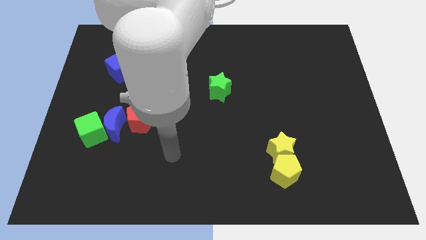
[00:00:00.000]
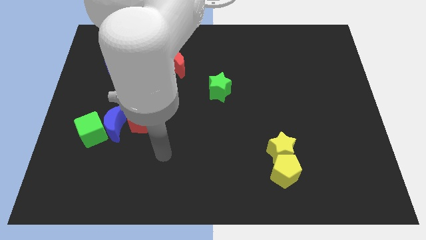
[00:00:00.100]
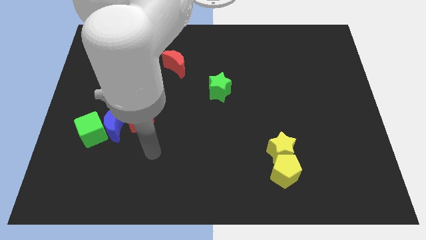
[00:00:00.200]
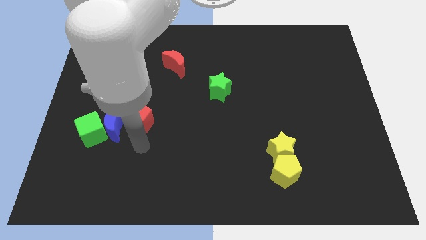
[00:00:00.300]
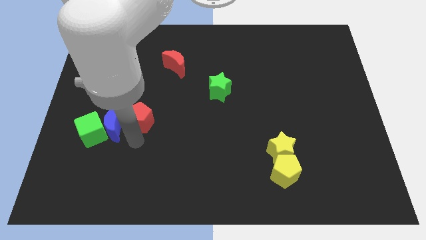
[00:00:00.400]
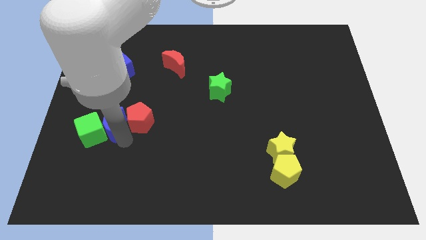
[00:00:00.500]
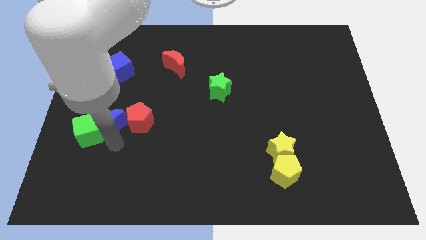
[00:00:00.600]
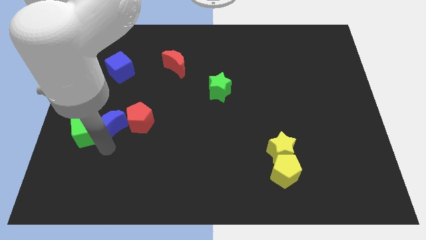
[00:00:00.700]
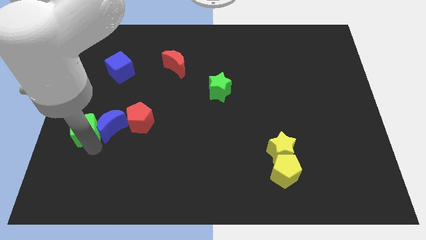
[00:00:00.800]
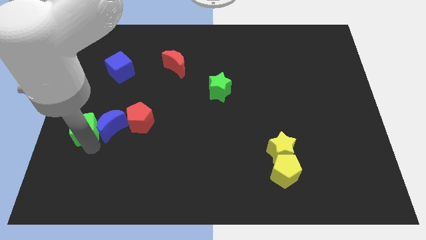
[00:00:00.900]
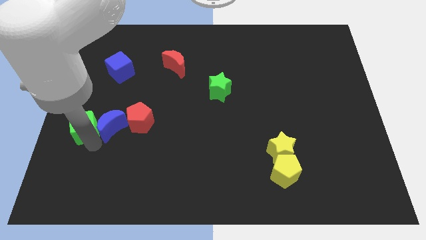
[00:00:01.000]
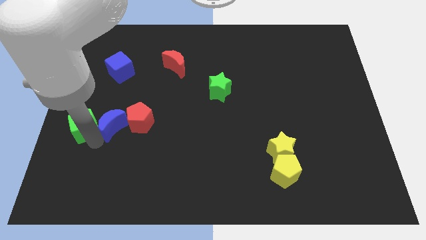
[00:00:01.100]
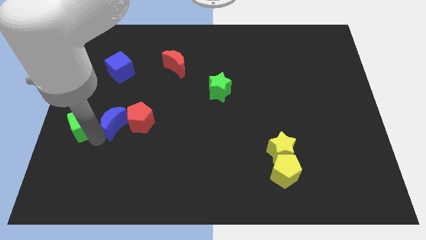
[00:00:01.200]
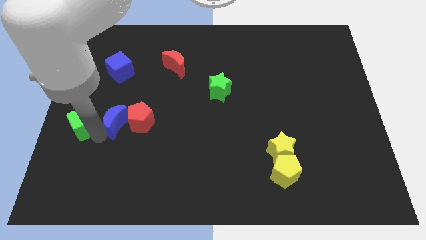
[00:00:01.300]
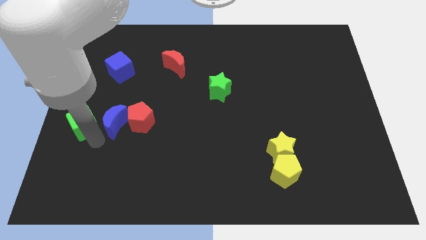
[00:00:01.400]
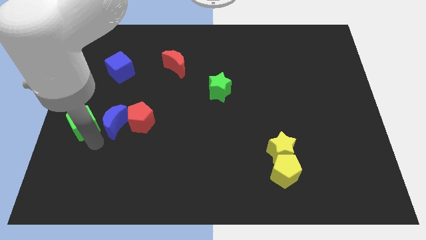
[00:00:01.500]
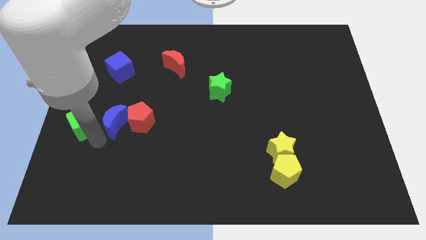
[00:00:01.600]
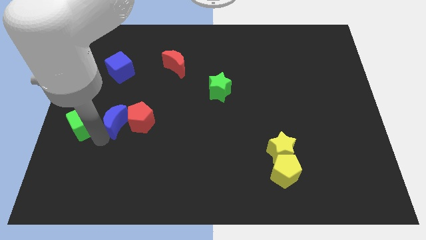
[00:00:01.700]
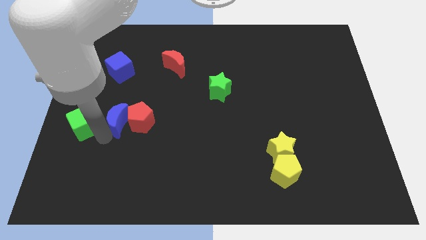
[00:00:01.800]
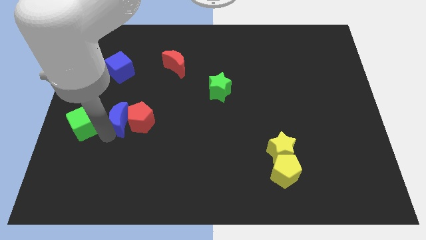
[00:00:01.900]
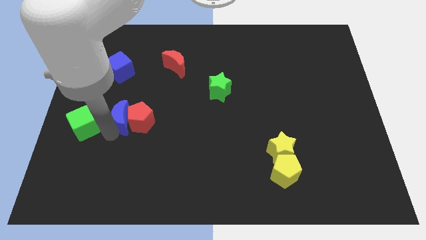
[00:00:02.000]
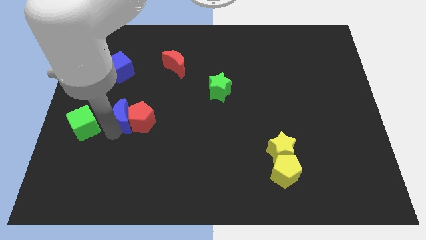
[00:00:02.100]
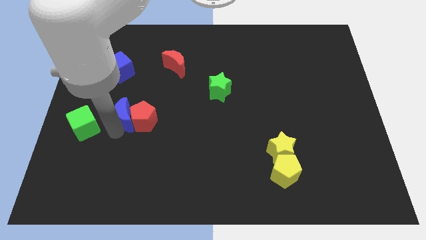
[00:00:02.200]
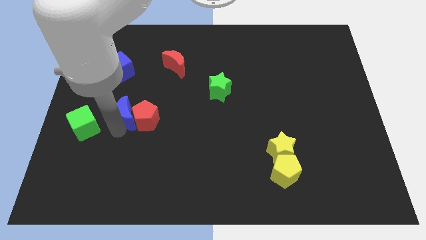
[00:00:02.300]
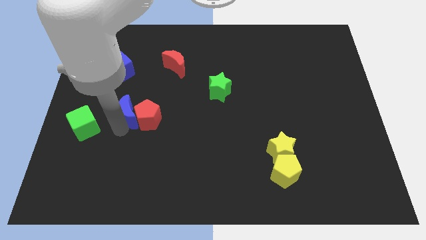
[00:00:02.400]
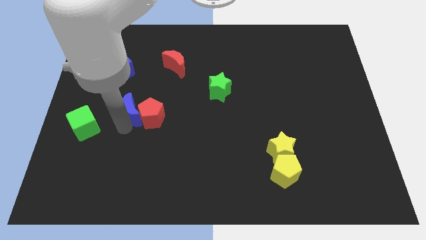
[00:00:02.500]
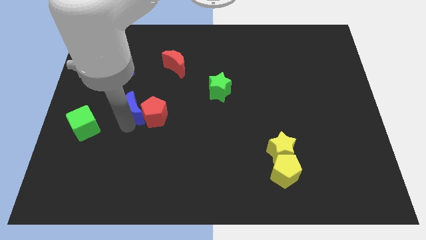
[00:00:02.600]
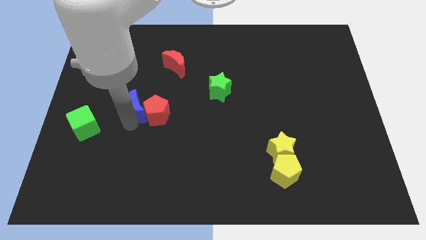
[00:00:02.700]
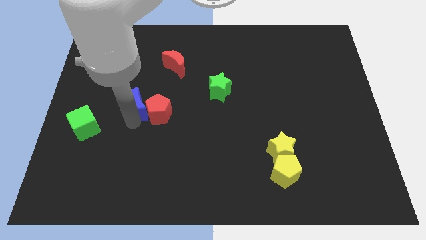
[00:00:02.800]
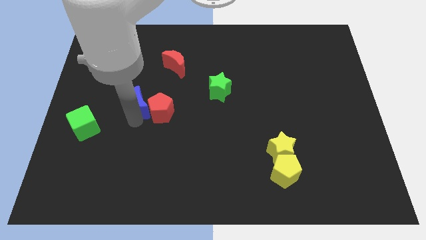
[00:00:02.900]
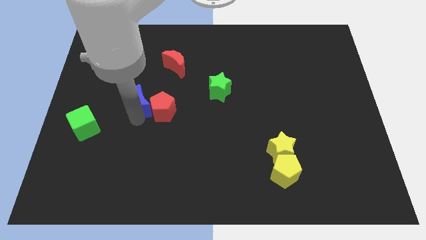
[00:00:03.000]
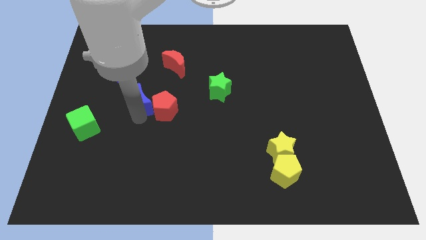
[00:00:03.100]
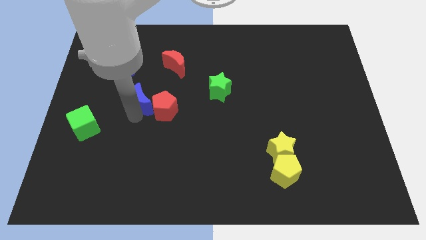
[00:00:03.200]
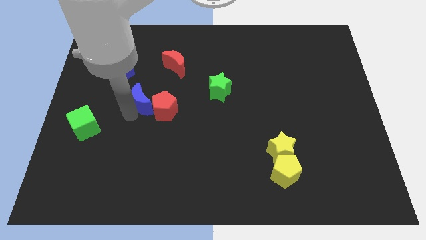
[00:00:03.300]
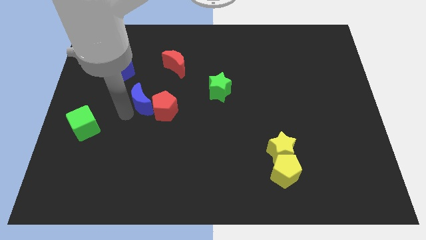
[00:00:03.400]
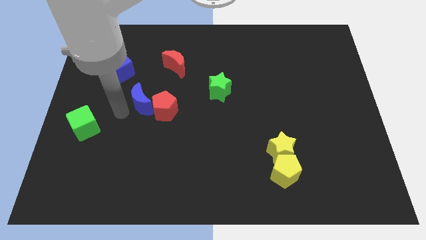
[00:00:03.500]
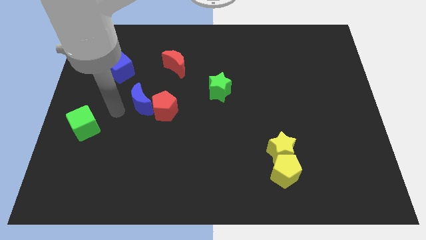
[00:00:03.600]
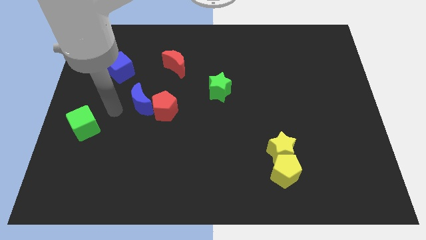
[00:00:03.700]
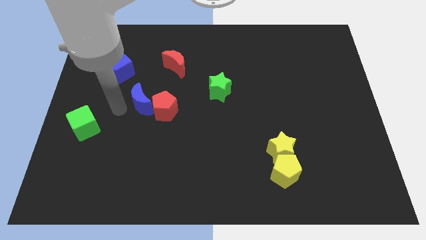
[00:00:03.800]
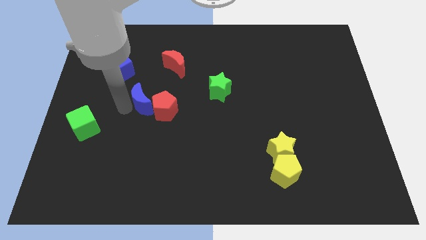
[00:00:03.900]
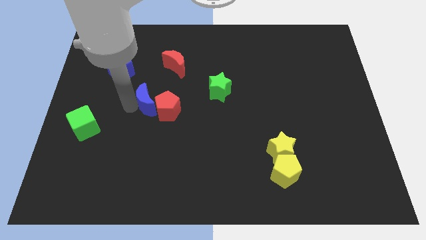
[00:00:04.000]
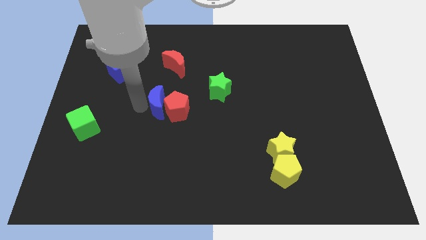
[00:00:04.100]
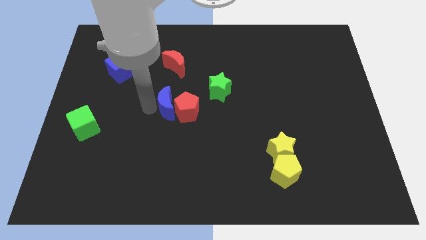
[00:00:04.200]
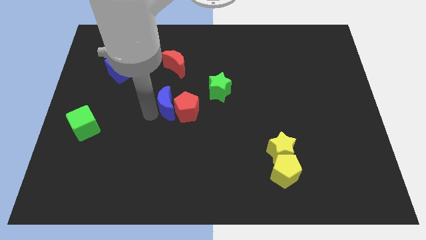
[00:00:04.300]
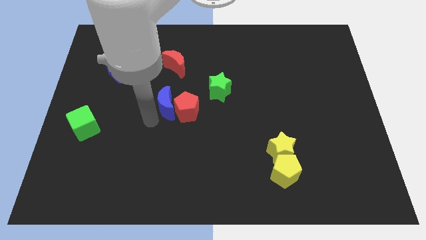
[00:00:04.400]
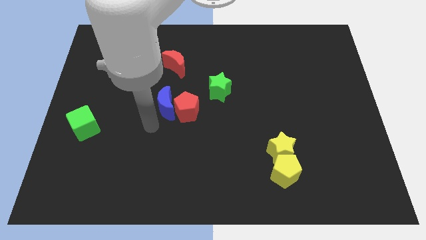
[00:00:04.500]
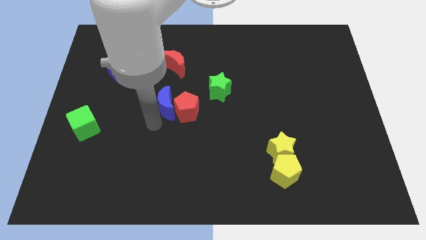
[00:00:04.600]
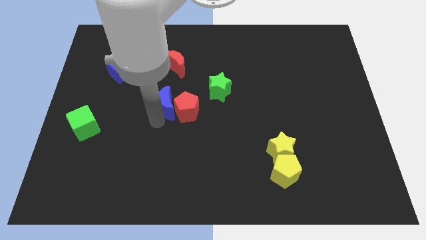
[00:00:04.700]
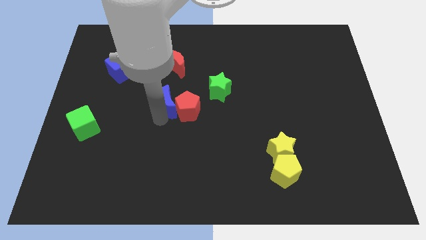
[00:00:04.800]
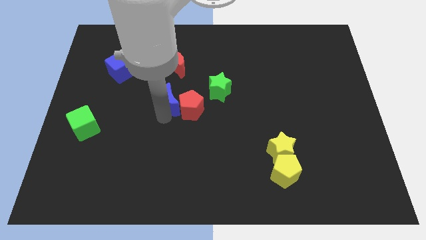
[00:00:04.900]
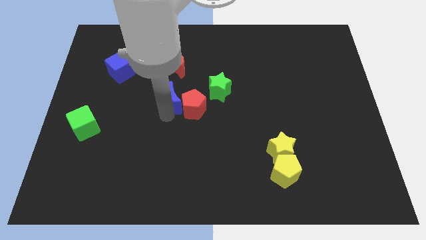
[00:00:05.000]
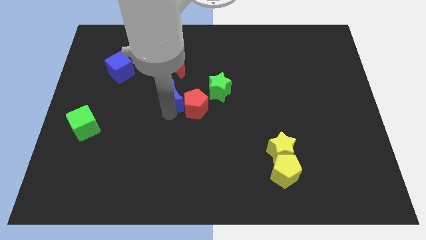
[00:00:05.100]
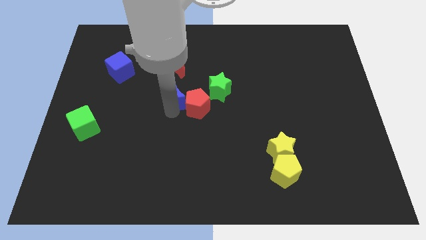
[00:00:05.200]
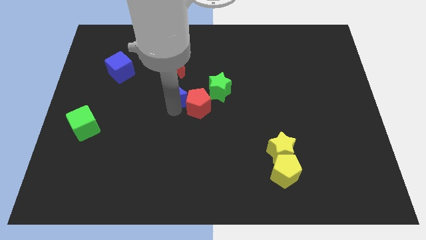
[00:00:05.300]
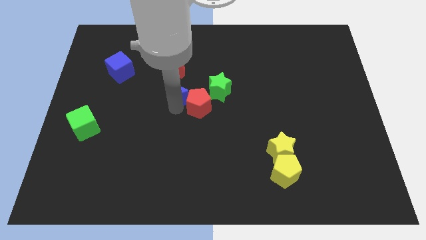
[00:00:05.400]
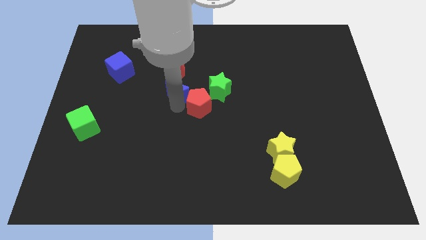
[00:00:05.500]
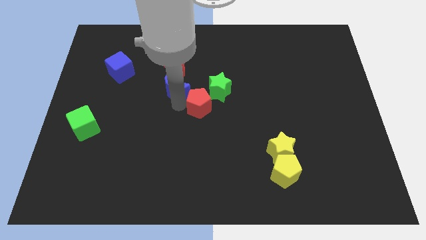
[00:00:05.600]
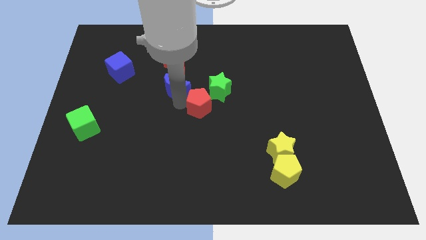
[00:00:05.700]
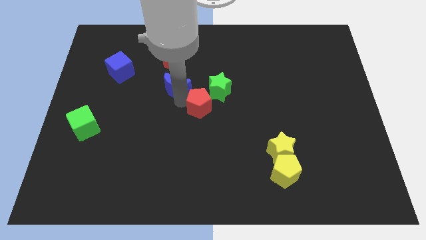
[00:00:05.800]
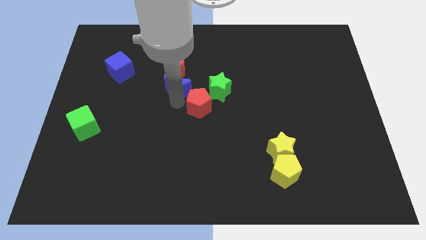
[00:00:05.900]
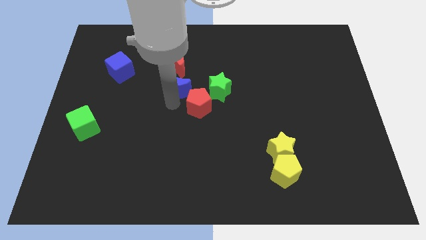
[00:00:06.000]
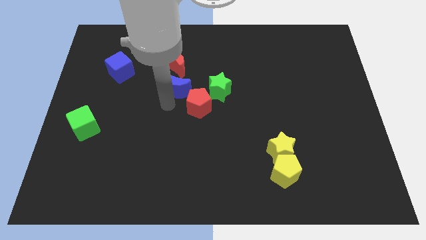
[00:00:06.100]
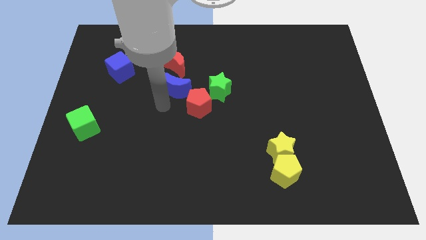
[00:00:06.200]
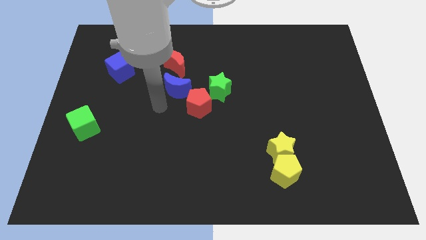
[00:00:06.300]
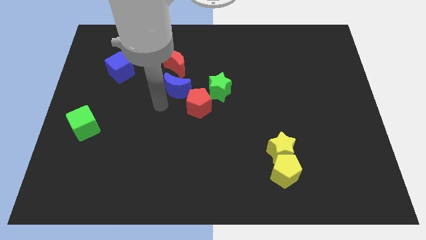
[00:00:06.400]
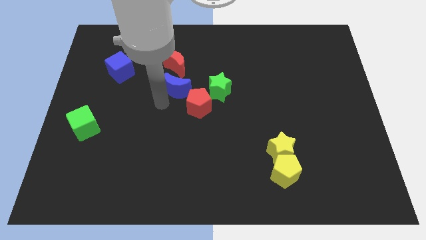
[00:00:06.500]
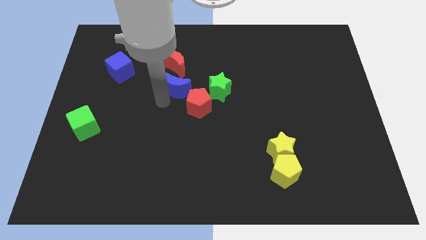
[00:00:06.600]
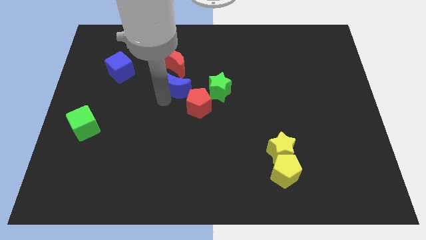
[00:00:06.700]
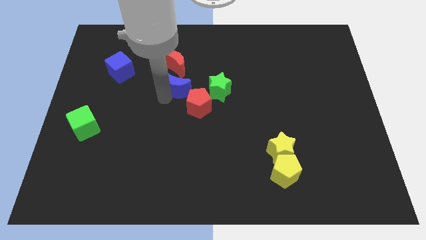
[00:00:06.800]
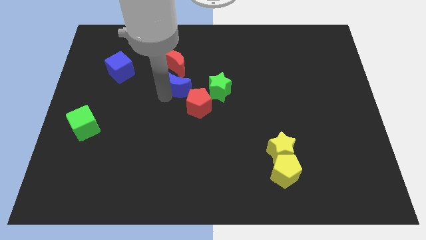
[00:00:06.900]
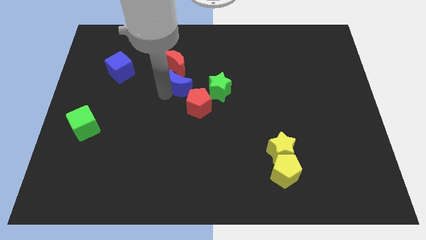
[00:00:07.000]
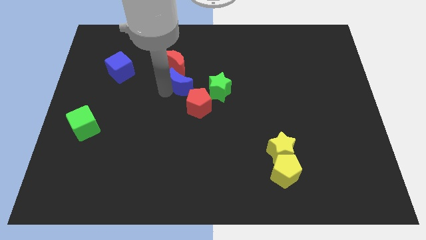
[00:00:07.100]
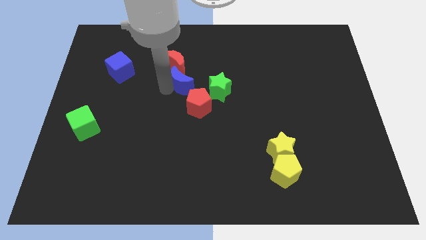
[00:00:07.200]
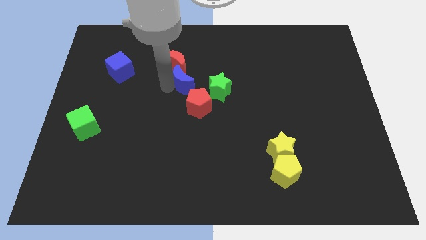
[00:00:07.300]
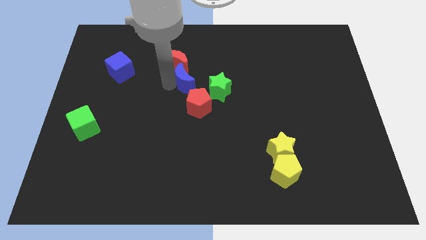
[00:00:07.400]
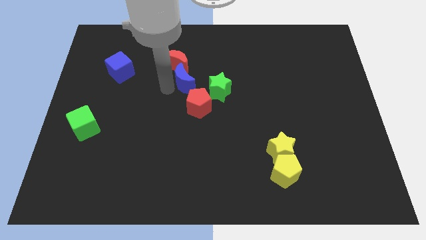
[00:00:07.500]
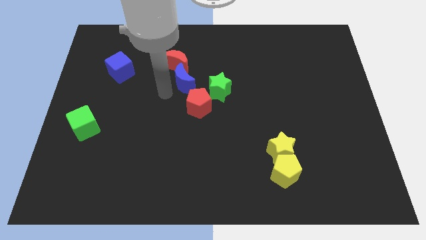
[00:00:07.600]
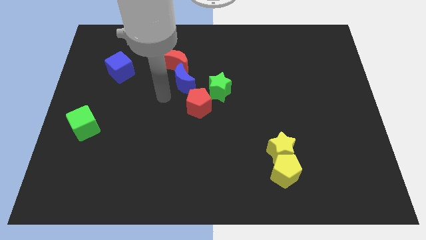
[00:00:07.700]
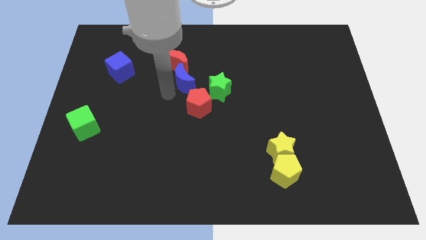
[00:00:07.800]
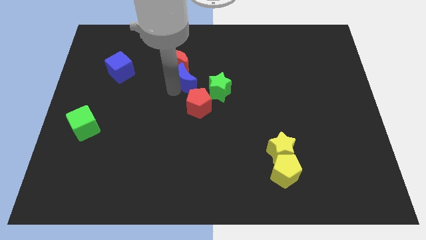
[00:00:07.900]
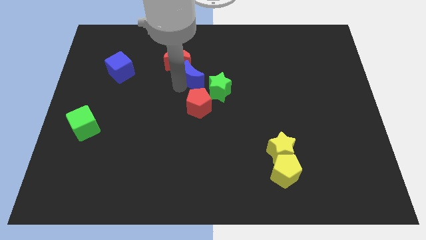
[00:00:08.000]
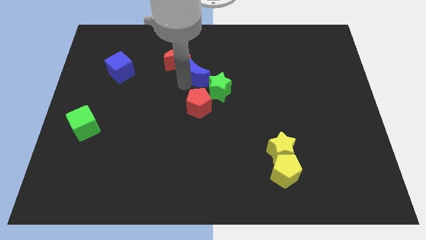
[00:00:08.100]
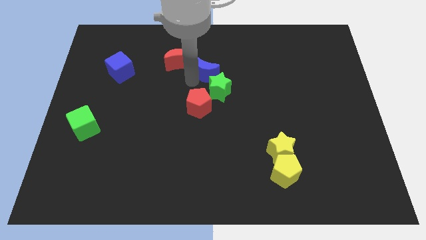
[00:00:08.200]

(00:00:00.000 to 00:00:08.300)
slide the blue moon to the top side of the green star
